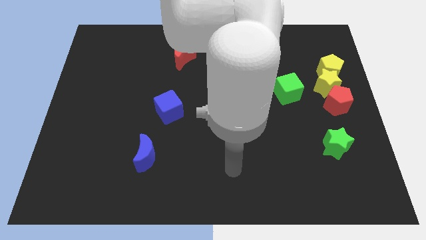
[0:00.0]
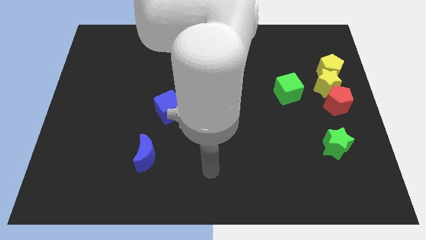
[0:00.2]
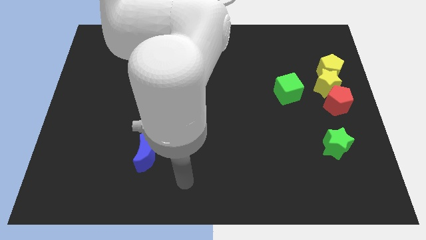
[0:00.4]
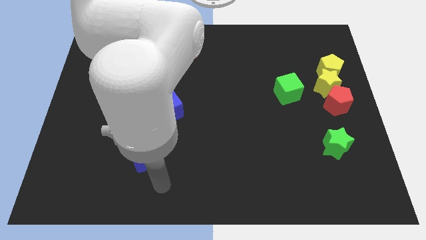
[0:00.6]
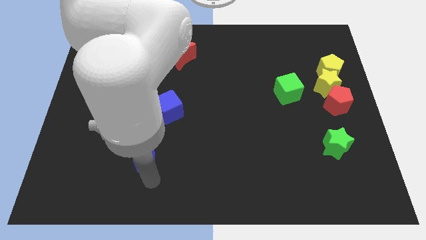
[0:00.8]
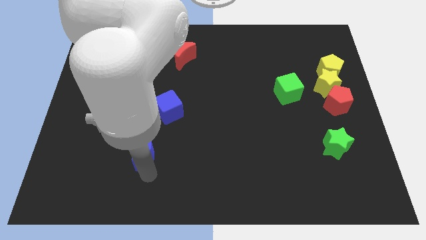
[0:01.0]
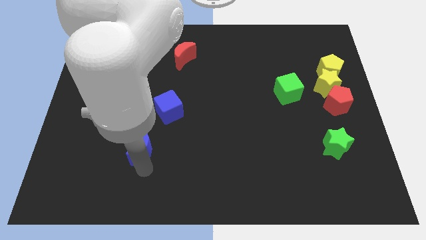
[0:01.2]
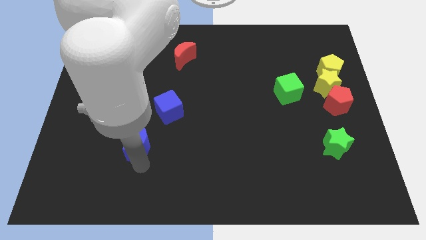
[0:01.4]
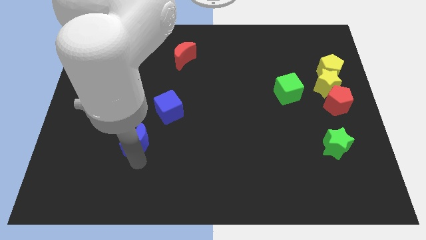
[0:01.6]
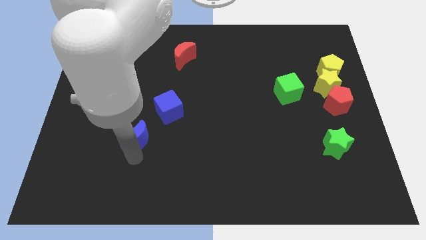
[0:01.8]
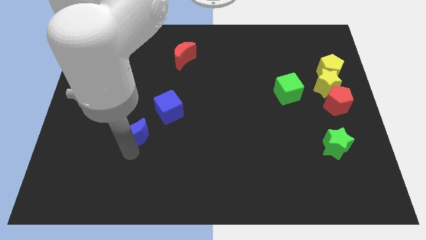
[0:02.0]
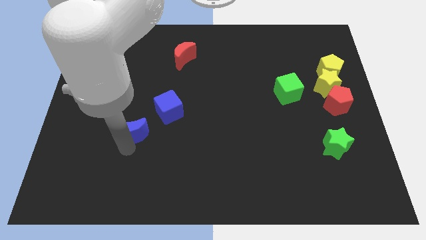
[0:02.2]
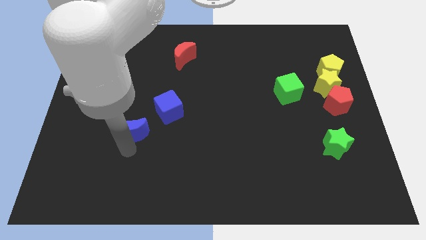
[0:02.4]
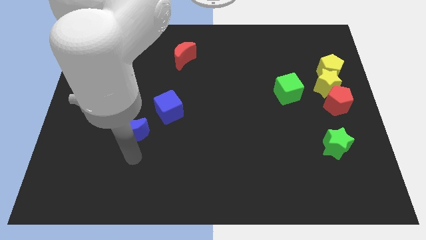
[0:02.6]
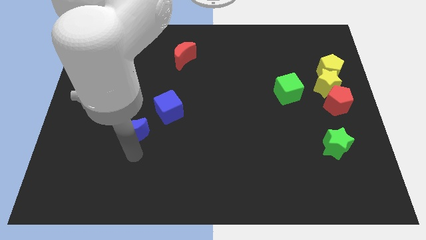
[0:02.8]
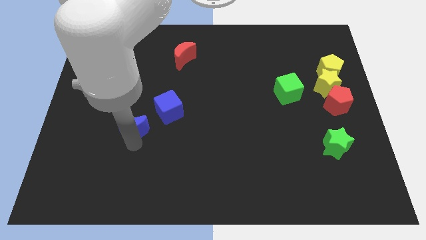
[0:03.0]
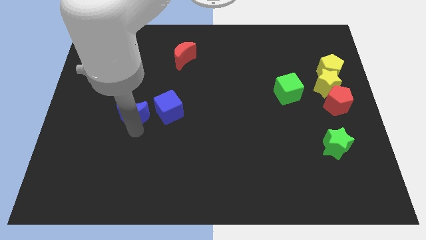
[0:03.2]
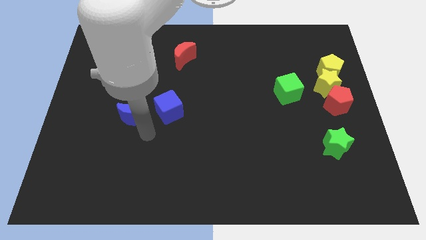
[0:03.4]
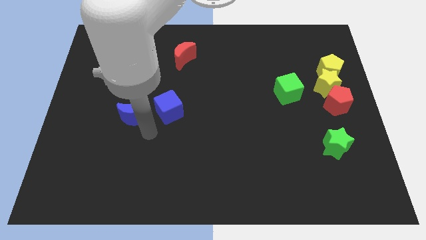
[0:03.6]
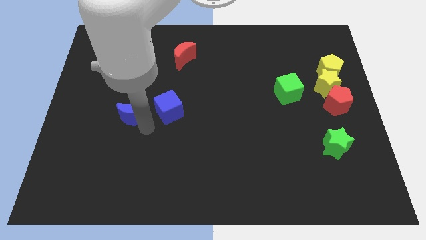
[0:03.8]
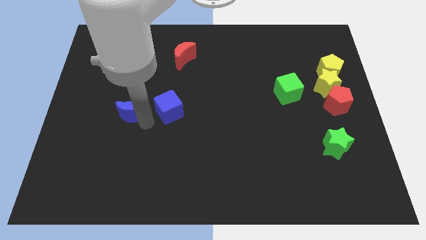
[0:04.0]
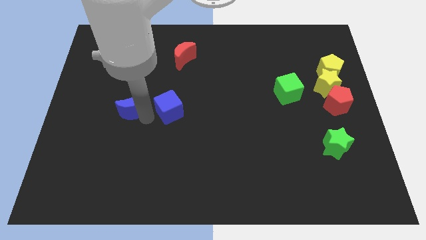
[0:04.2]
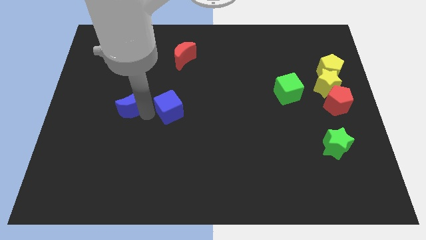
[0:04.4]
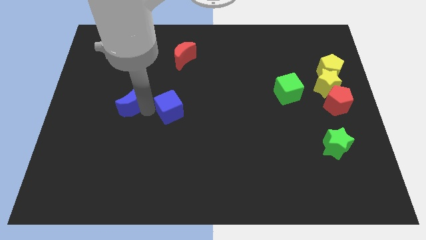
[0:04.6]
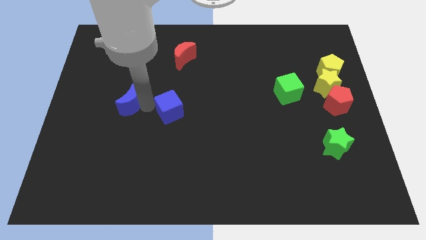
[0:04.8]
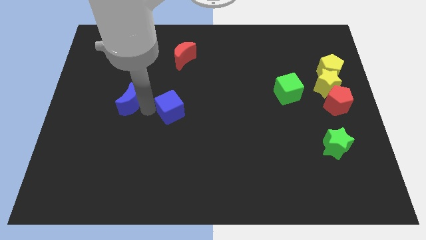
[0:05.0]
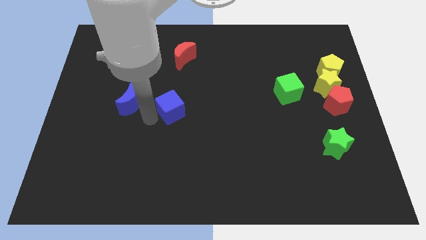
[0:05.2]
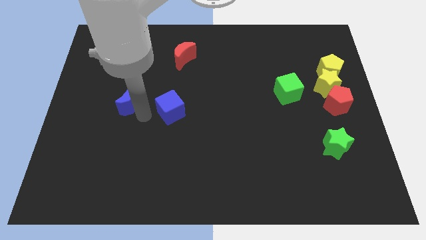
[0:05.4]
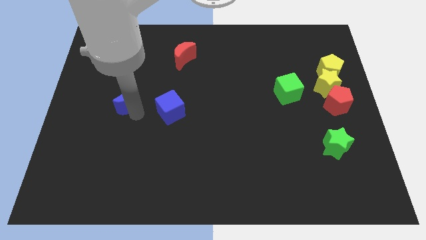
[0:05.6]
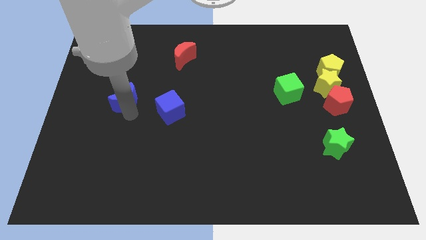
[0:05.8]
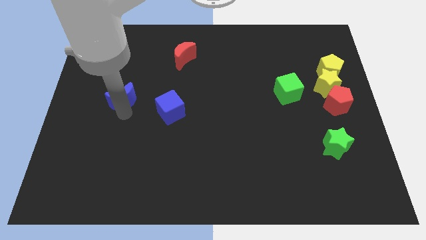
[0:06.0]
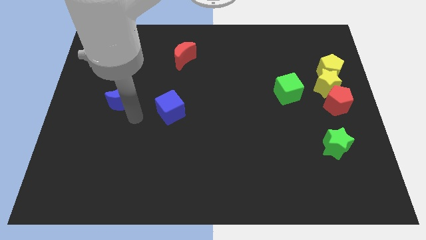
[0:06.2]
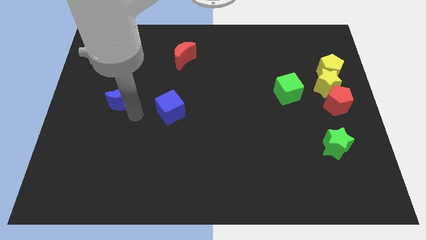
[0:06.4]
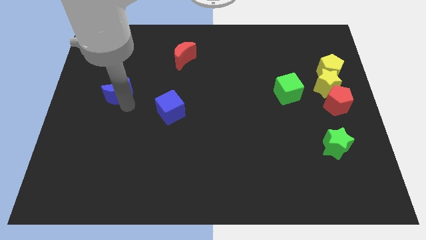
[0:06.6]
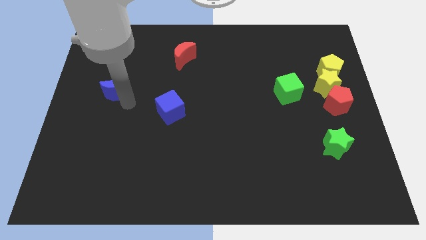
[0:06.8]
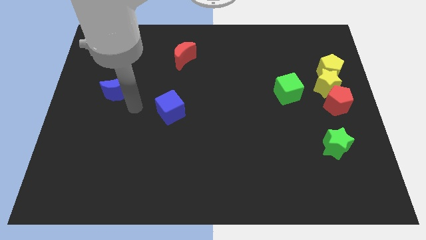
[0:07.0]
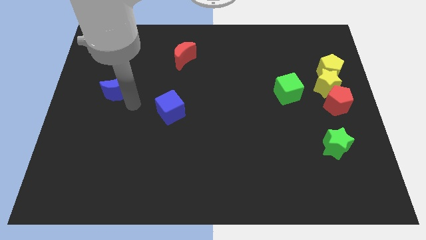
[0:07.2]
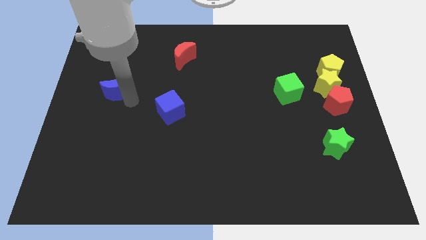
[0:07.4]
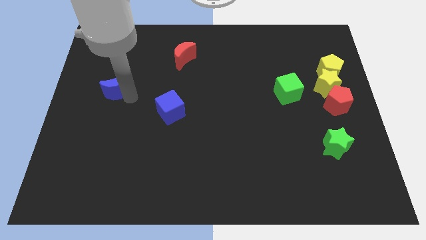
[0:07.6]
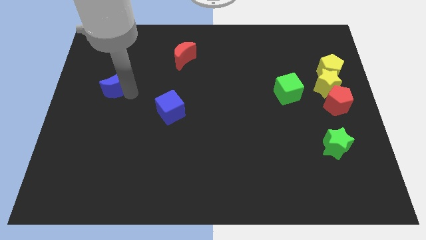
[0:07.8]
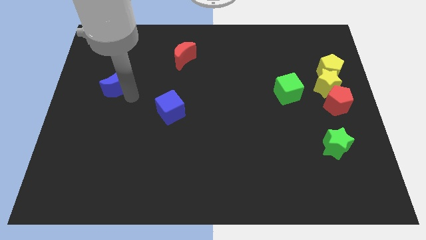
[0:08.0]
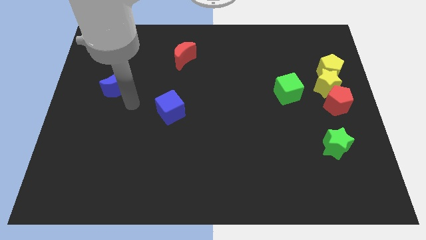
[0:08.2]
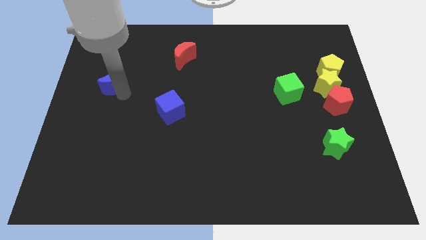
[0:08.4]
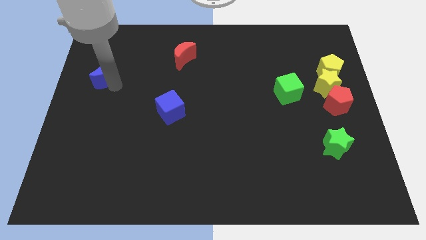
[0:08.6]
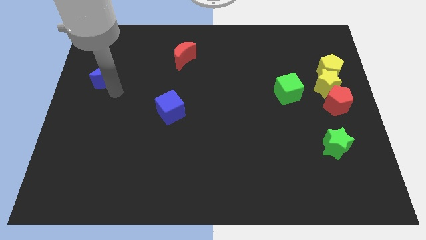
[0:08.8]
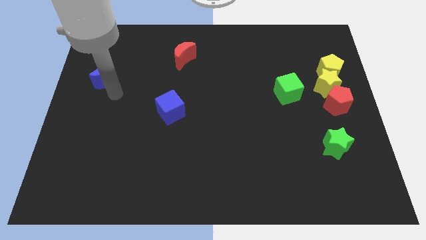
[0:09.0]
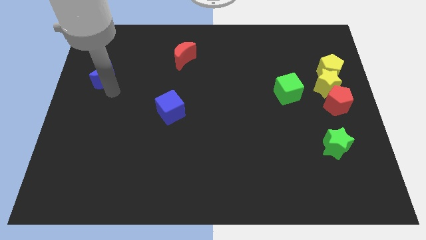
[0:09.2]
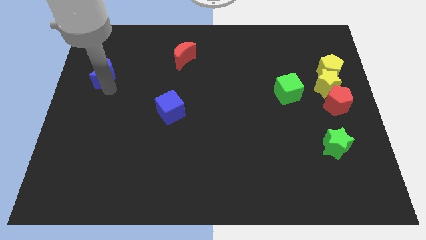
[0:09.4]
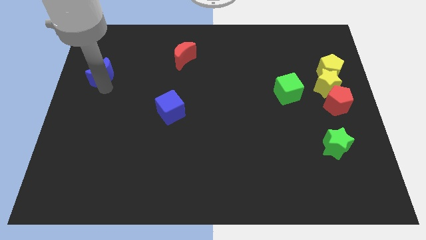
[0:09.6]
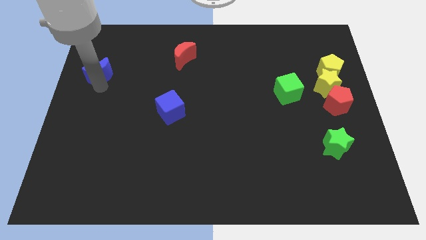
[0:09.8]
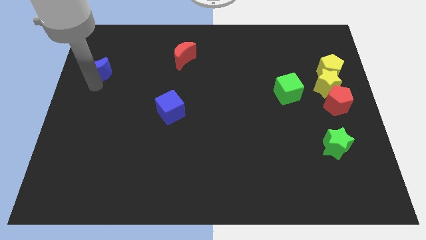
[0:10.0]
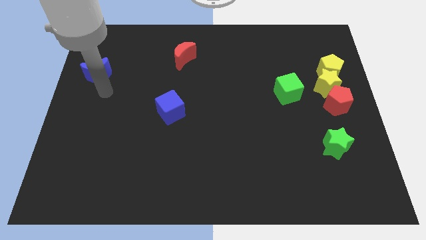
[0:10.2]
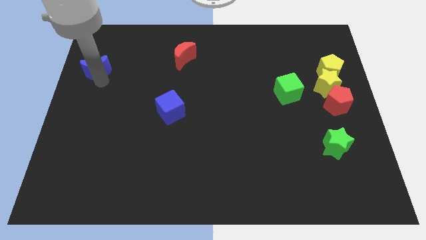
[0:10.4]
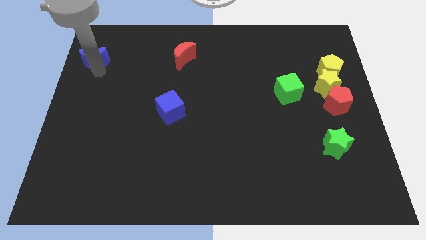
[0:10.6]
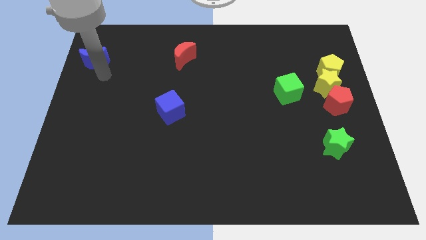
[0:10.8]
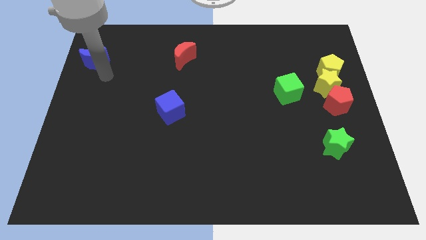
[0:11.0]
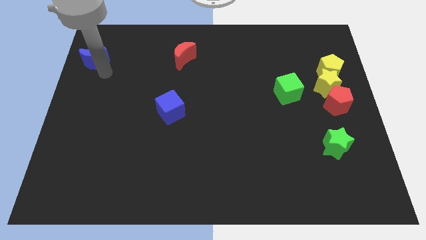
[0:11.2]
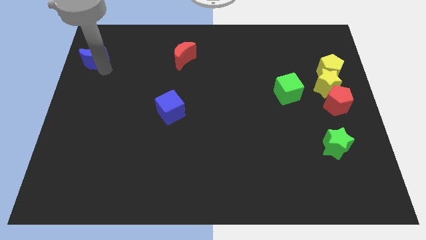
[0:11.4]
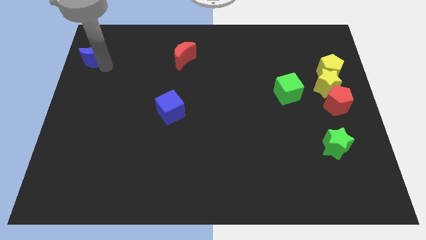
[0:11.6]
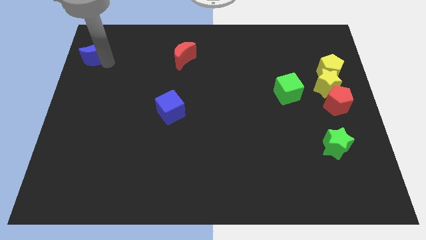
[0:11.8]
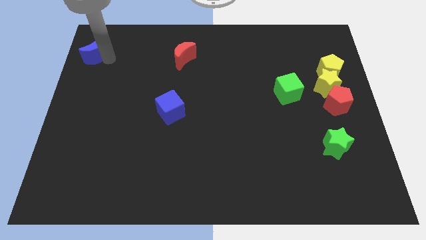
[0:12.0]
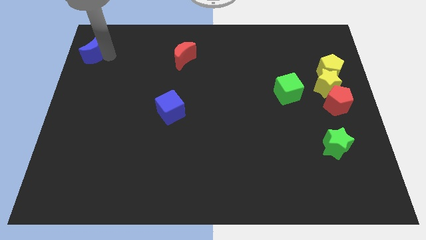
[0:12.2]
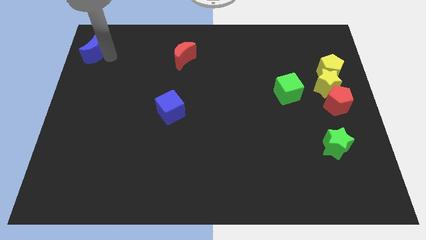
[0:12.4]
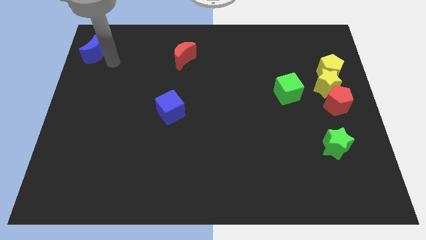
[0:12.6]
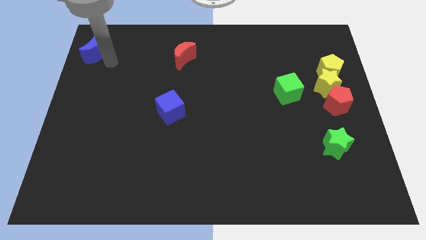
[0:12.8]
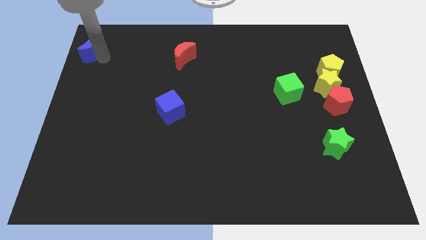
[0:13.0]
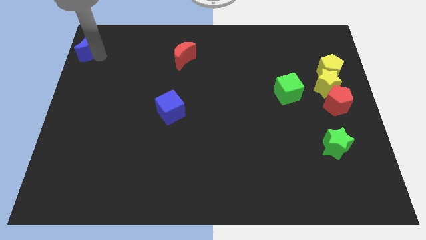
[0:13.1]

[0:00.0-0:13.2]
move the blue moon to the top left of the board
